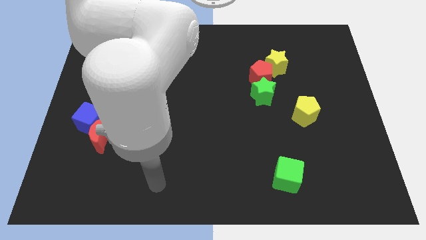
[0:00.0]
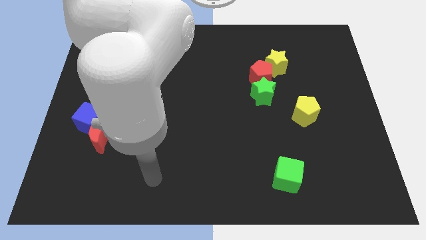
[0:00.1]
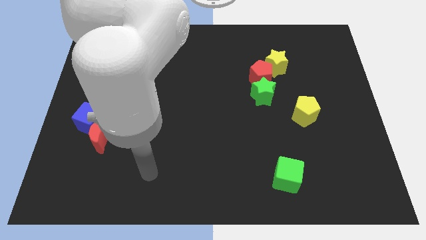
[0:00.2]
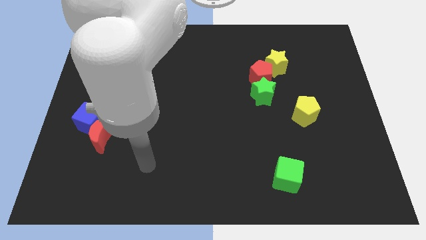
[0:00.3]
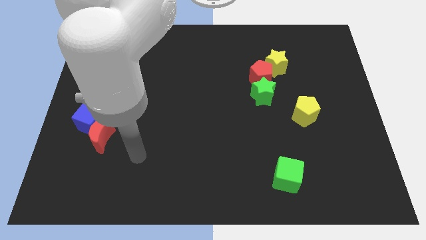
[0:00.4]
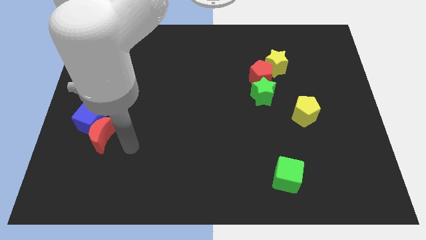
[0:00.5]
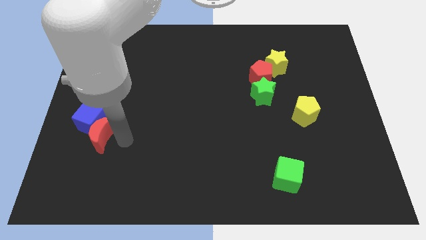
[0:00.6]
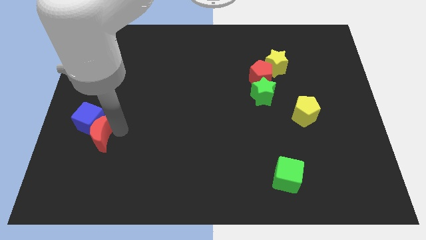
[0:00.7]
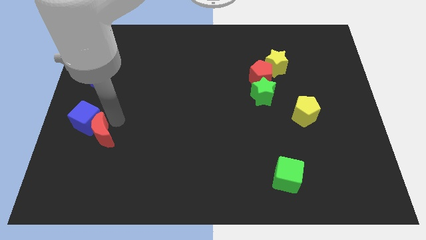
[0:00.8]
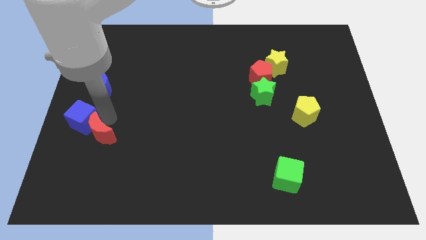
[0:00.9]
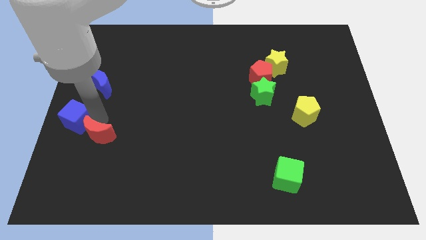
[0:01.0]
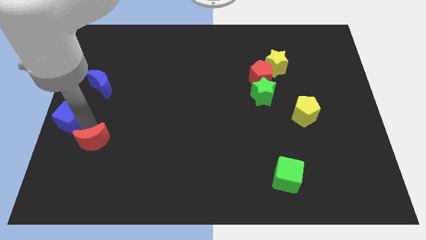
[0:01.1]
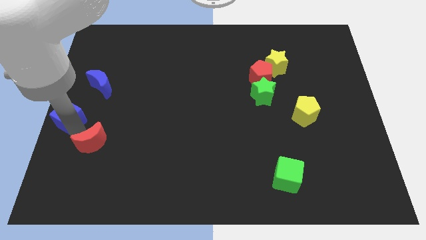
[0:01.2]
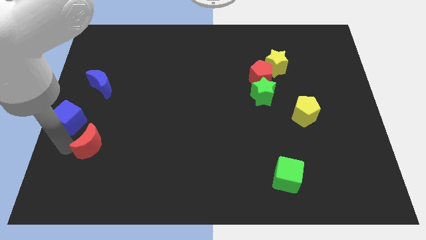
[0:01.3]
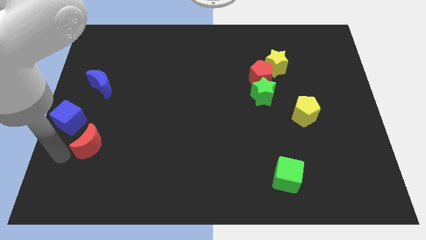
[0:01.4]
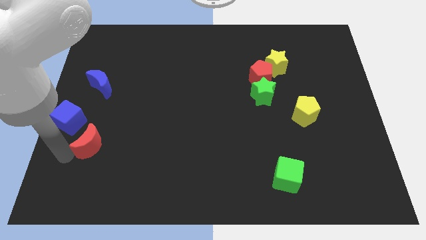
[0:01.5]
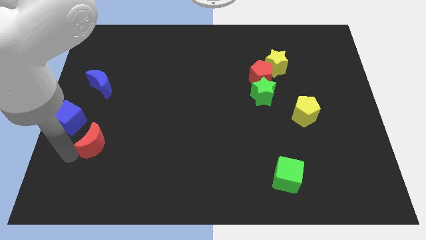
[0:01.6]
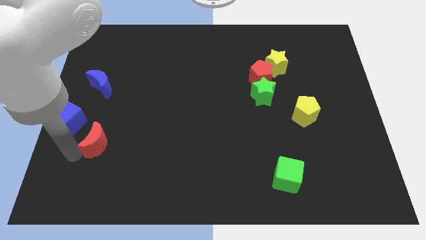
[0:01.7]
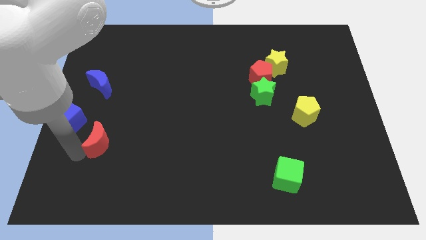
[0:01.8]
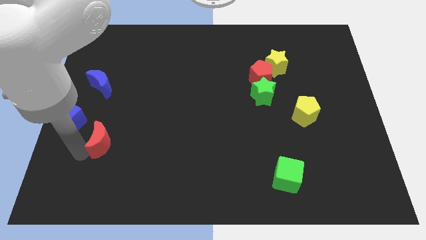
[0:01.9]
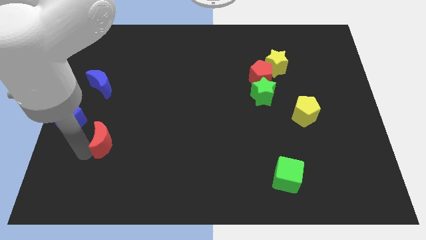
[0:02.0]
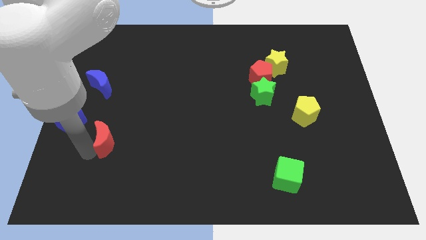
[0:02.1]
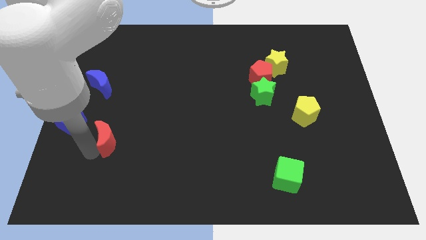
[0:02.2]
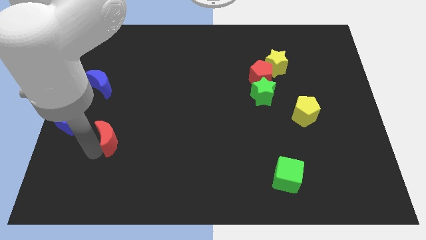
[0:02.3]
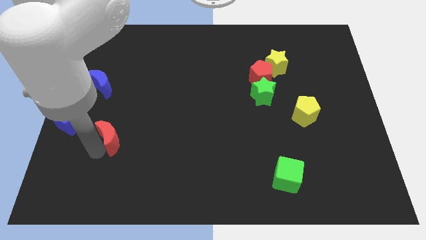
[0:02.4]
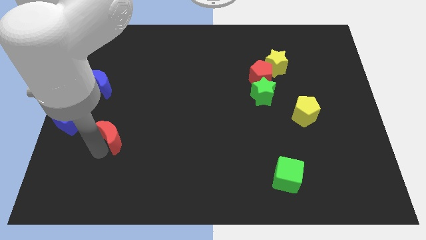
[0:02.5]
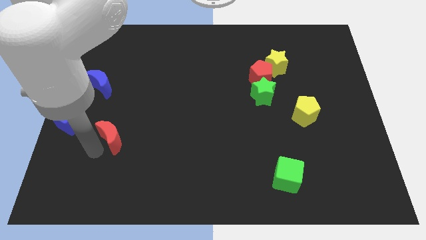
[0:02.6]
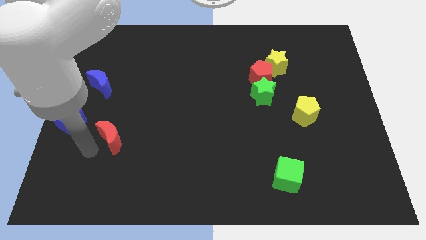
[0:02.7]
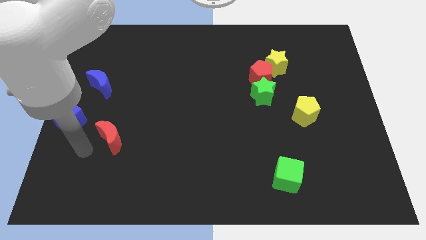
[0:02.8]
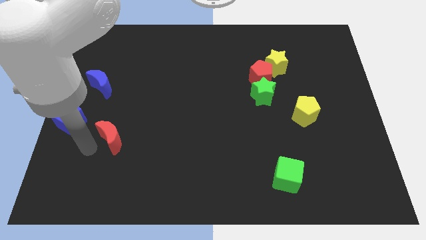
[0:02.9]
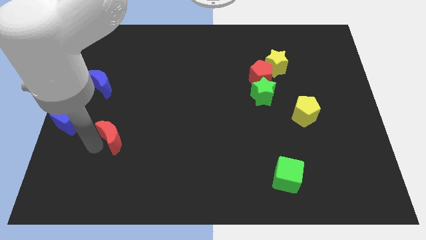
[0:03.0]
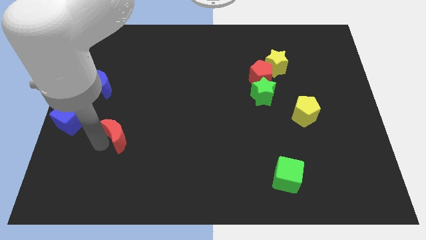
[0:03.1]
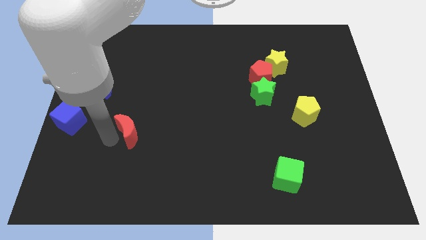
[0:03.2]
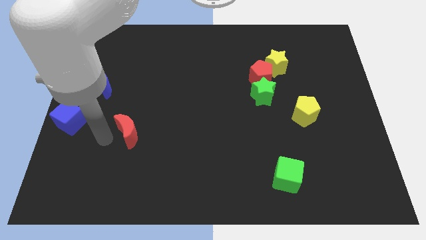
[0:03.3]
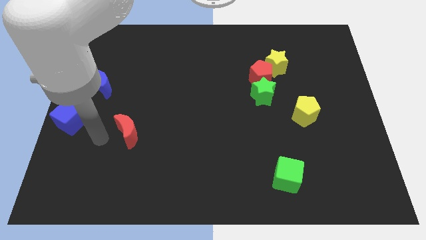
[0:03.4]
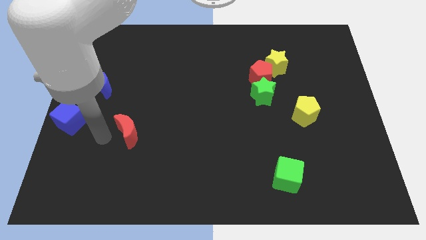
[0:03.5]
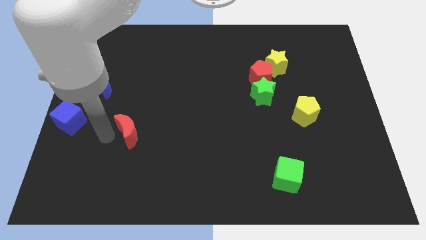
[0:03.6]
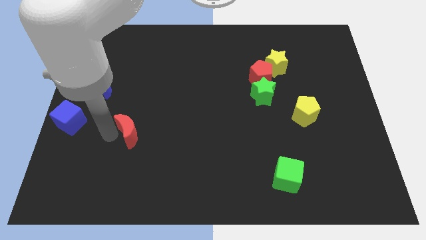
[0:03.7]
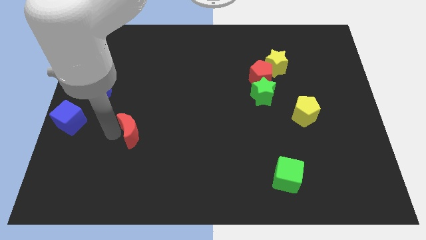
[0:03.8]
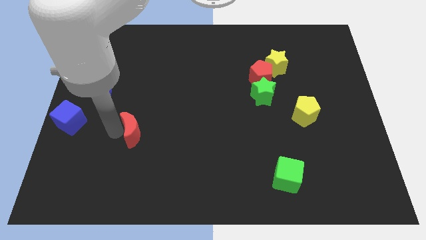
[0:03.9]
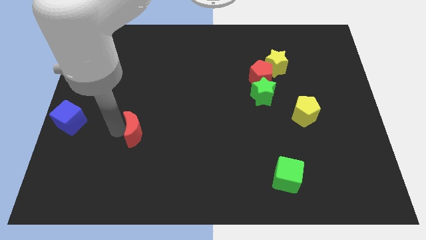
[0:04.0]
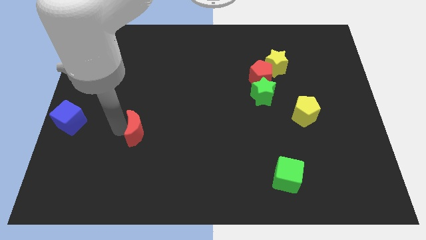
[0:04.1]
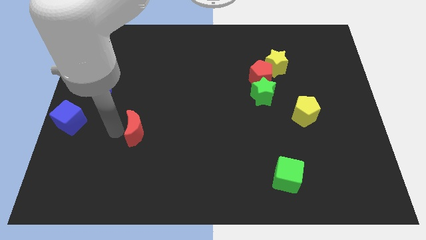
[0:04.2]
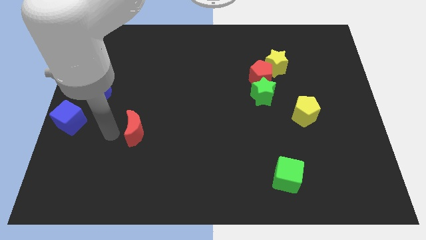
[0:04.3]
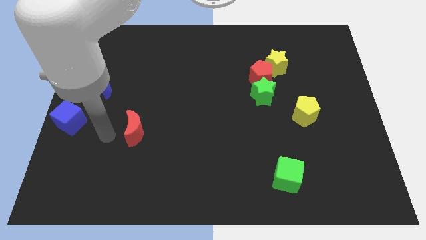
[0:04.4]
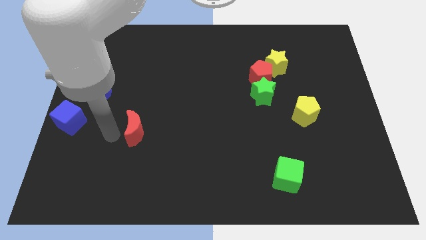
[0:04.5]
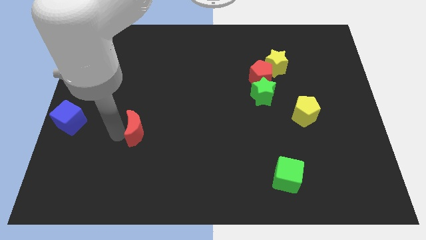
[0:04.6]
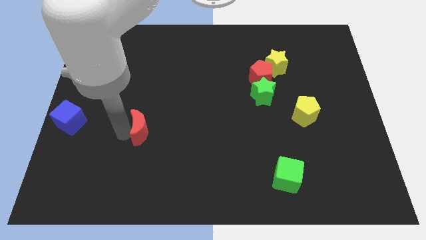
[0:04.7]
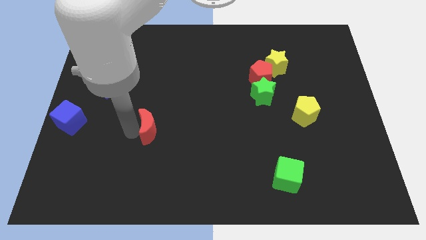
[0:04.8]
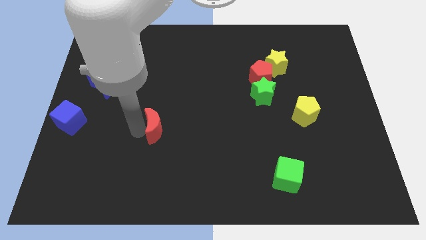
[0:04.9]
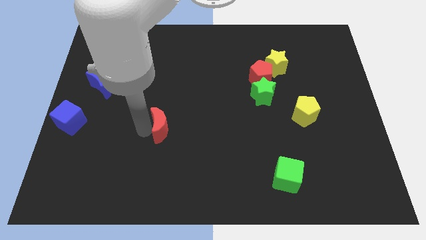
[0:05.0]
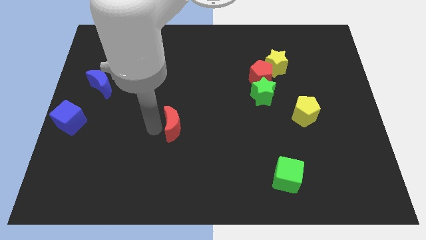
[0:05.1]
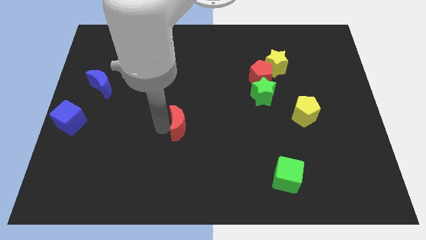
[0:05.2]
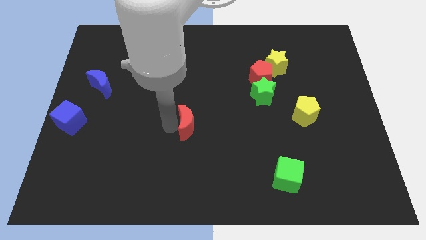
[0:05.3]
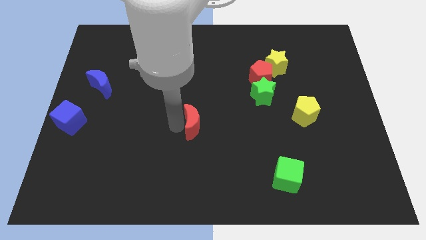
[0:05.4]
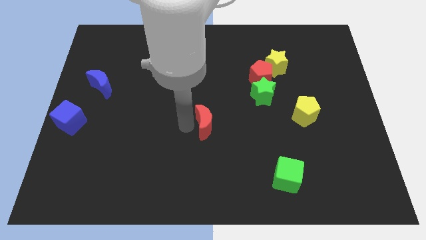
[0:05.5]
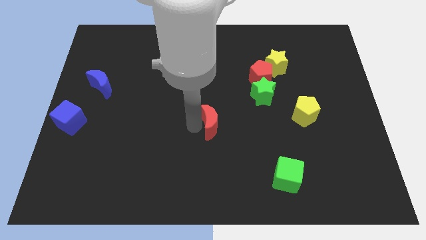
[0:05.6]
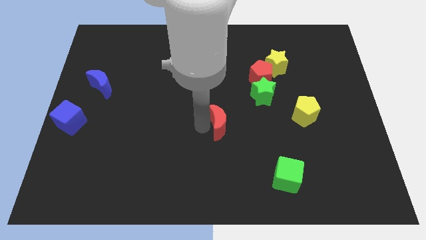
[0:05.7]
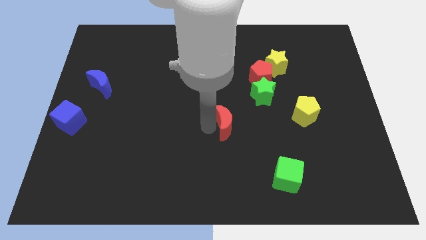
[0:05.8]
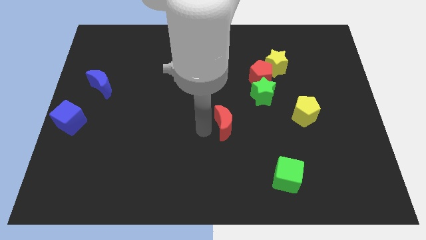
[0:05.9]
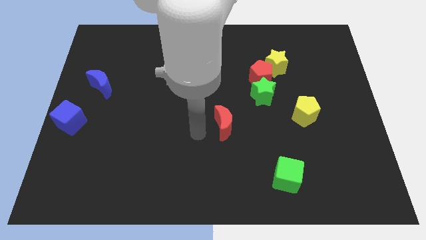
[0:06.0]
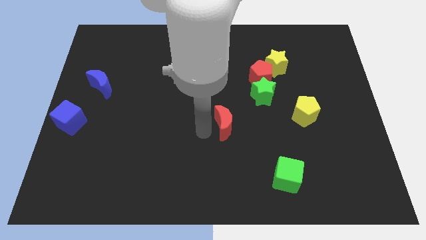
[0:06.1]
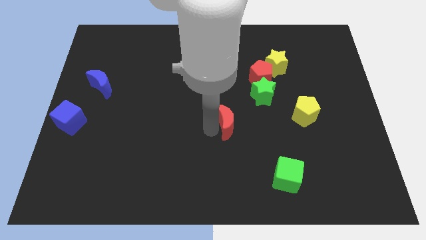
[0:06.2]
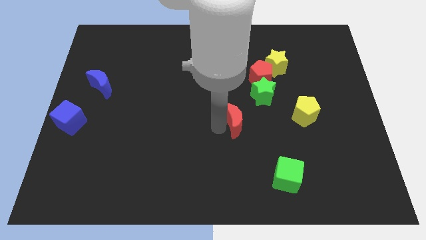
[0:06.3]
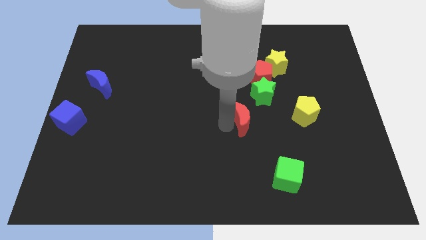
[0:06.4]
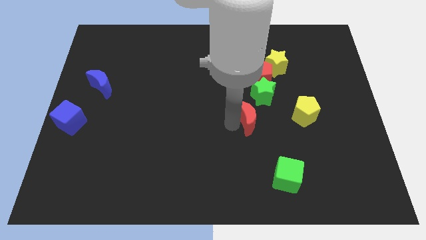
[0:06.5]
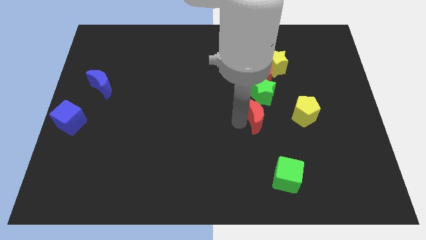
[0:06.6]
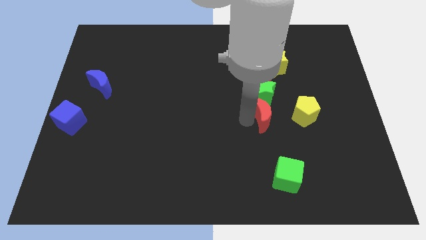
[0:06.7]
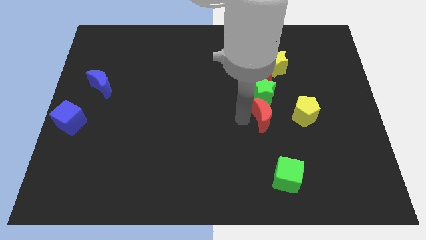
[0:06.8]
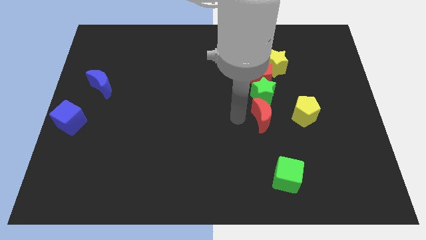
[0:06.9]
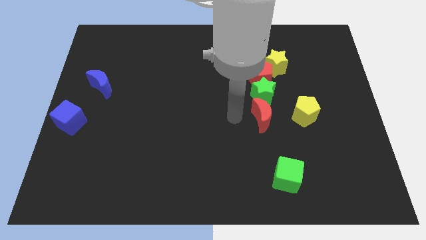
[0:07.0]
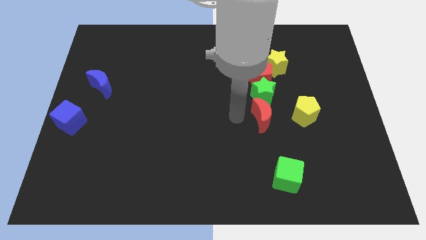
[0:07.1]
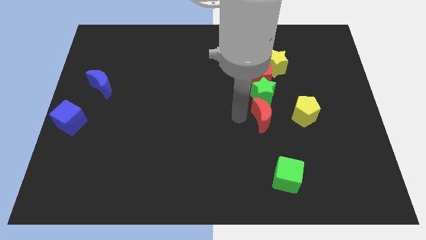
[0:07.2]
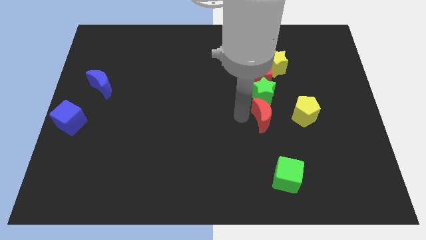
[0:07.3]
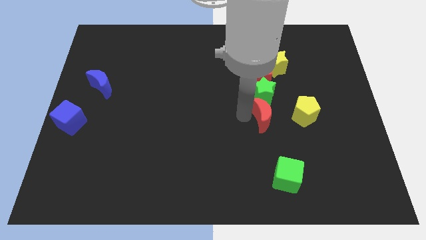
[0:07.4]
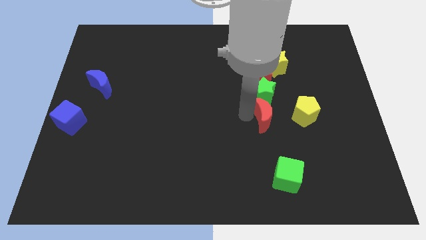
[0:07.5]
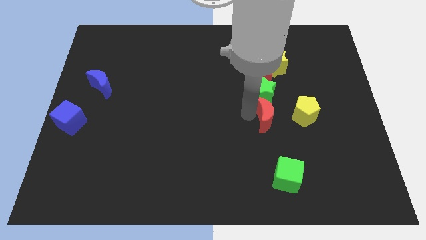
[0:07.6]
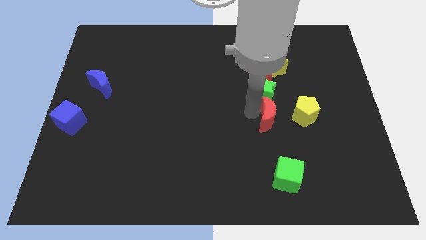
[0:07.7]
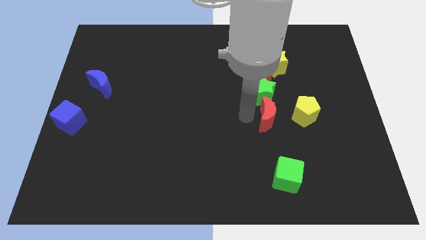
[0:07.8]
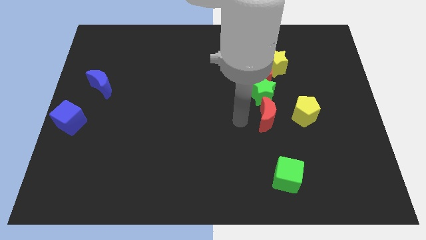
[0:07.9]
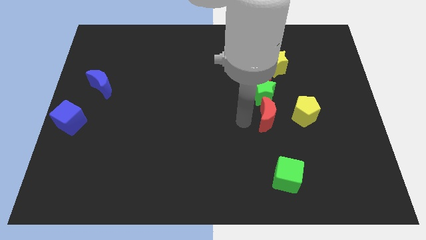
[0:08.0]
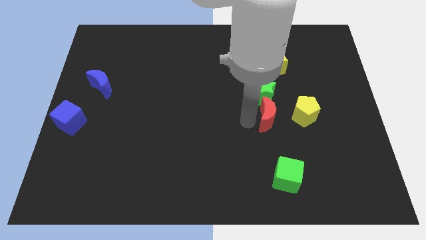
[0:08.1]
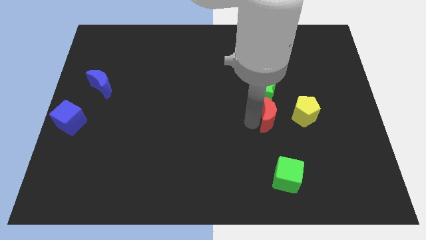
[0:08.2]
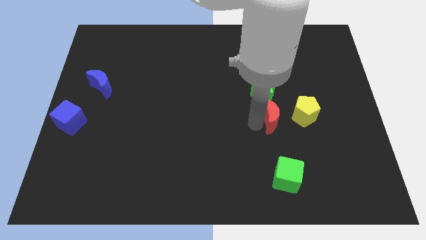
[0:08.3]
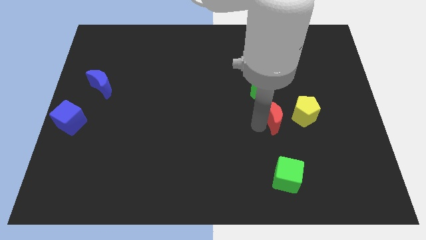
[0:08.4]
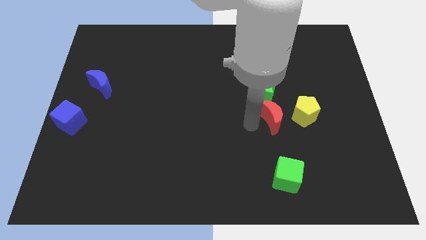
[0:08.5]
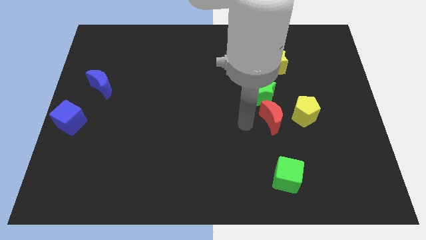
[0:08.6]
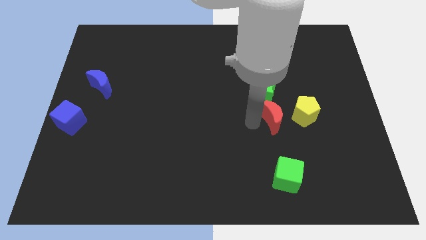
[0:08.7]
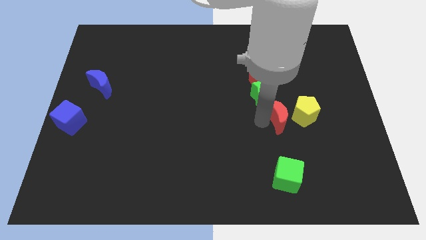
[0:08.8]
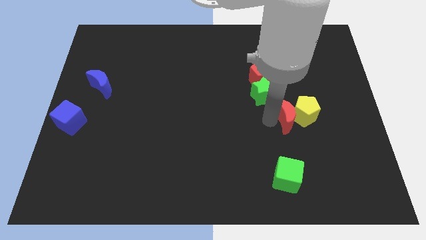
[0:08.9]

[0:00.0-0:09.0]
slide the red moon to the yellow pentagon
